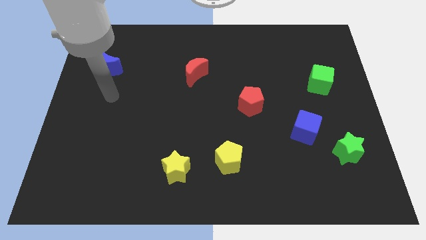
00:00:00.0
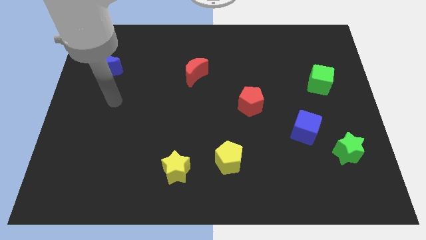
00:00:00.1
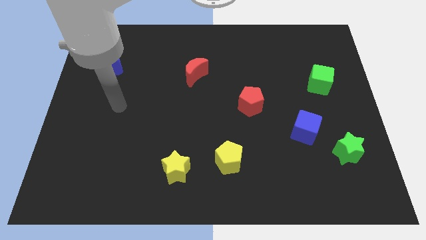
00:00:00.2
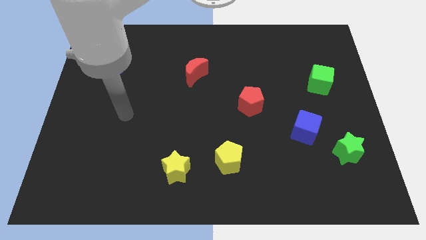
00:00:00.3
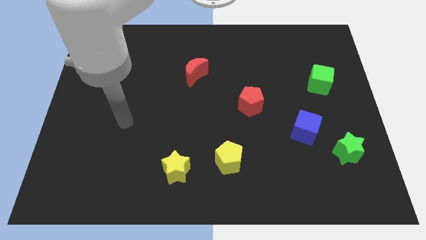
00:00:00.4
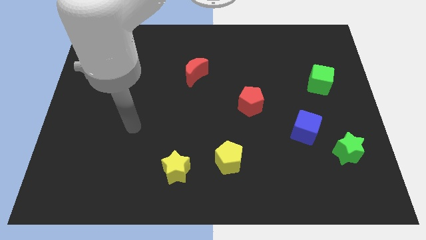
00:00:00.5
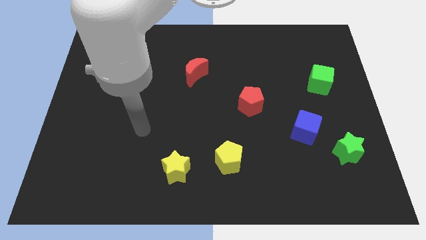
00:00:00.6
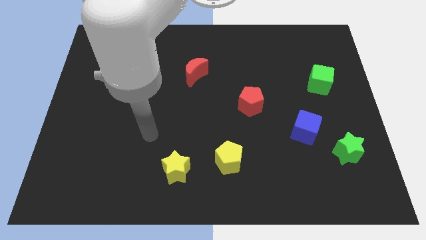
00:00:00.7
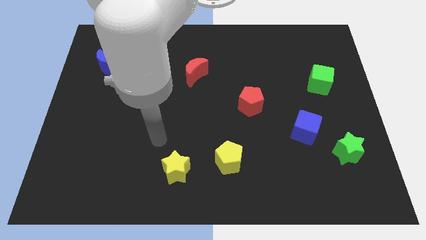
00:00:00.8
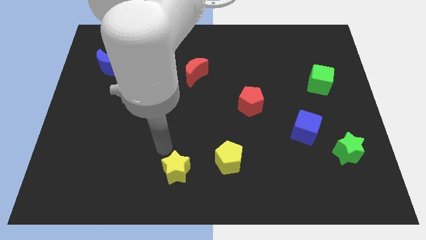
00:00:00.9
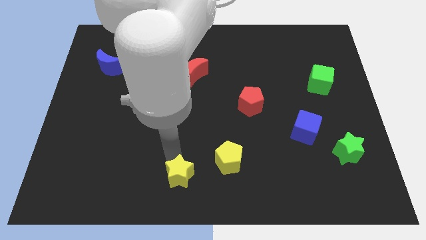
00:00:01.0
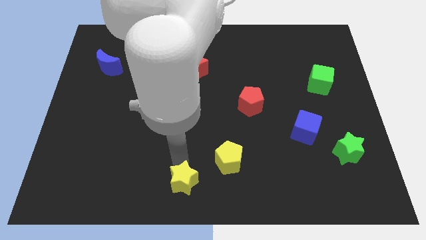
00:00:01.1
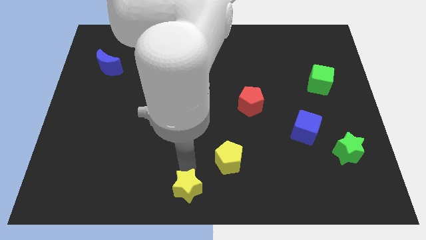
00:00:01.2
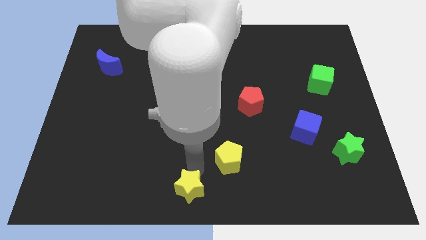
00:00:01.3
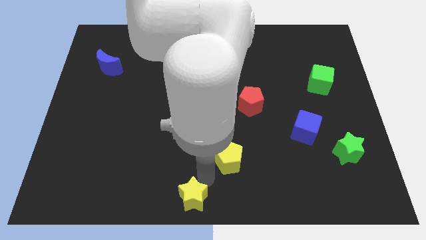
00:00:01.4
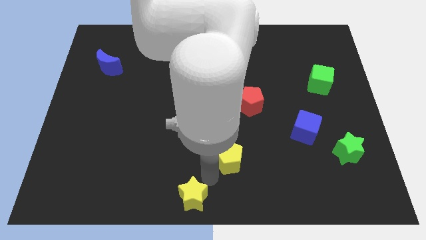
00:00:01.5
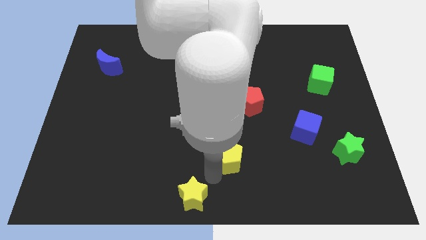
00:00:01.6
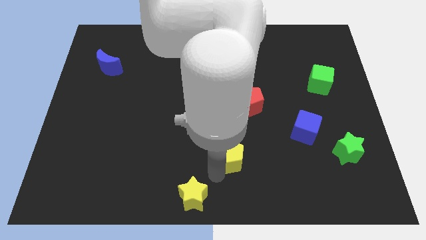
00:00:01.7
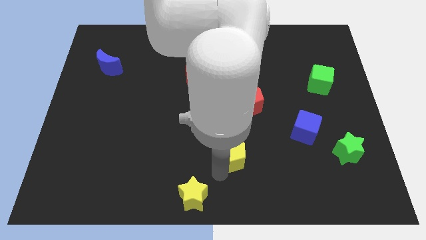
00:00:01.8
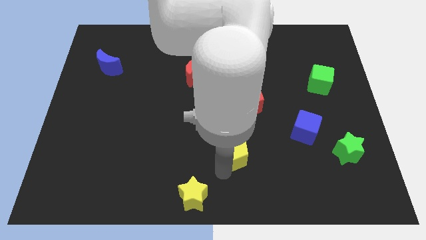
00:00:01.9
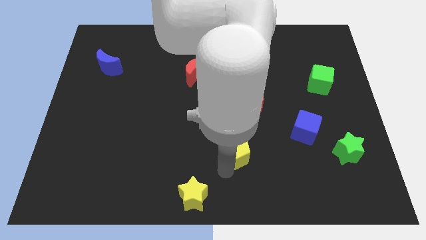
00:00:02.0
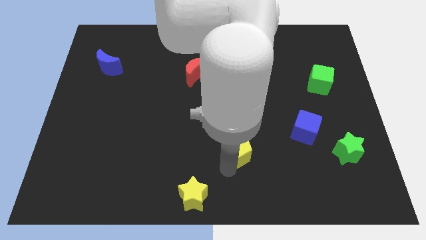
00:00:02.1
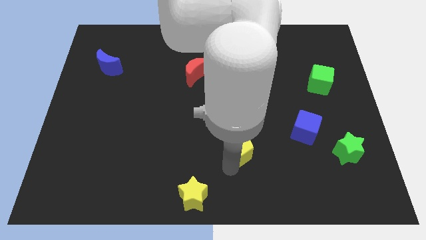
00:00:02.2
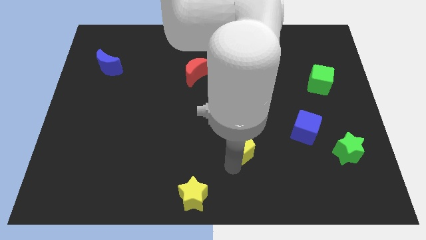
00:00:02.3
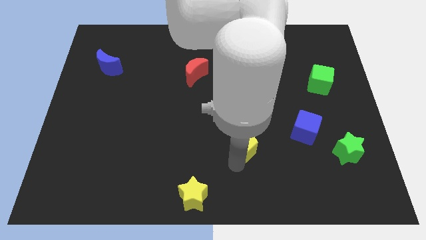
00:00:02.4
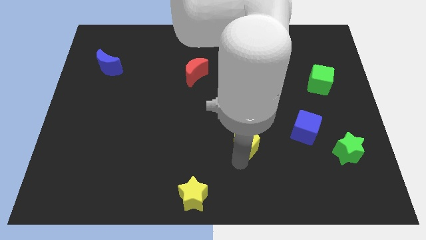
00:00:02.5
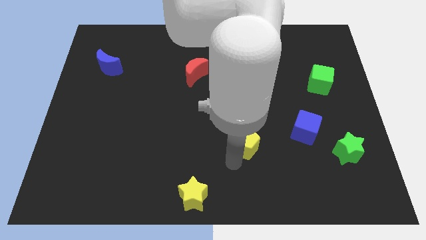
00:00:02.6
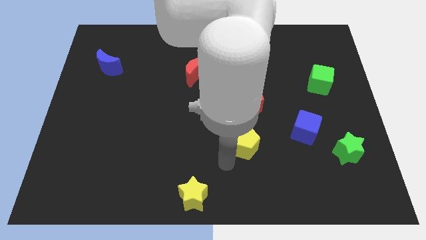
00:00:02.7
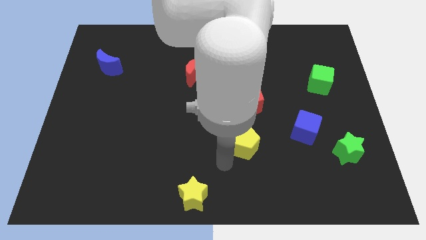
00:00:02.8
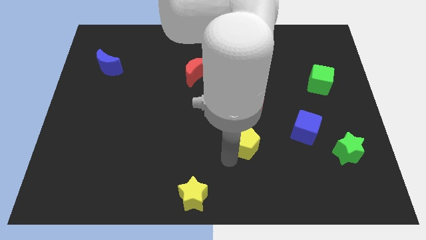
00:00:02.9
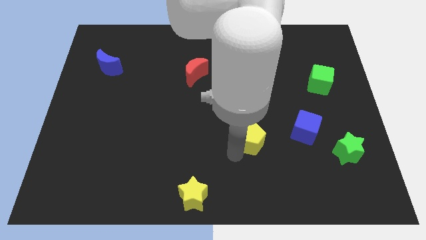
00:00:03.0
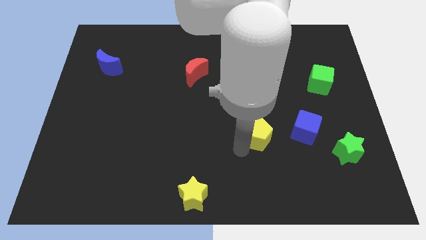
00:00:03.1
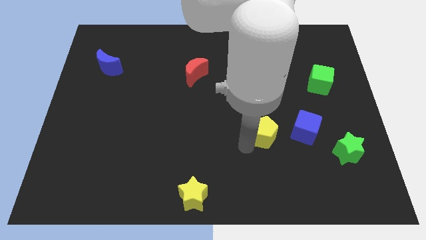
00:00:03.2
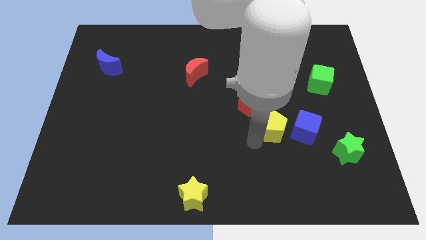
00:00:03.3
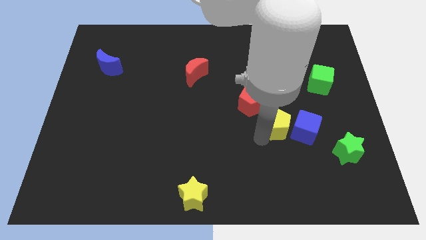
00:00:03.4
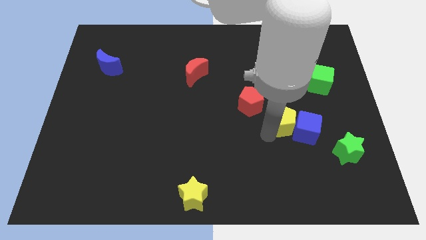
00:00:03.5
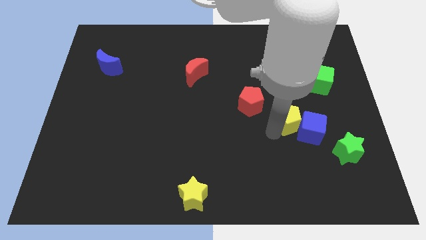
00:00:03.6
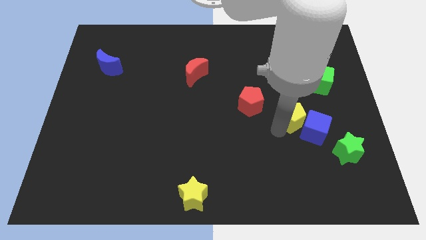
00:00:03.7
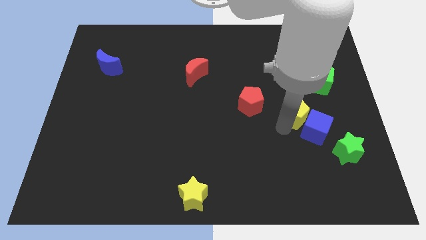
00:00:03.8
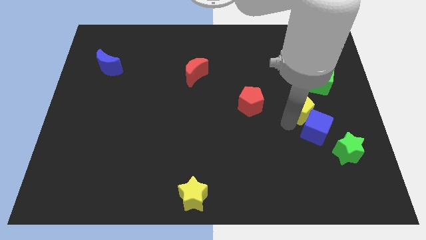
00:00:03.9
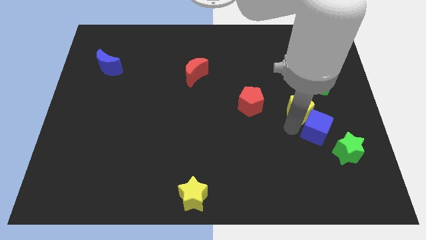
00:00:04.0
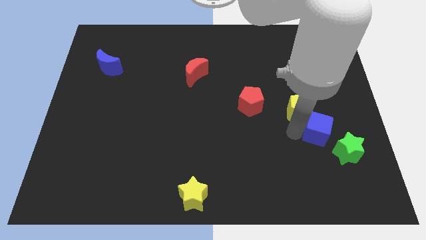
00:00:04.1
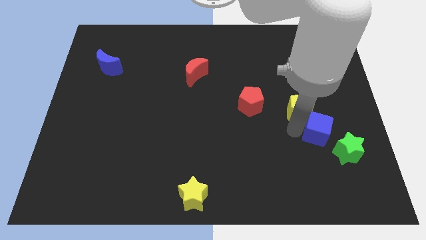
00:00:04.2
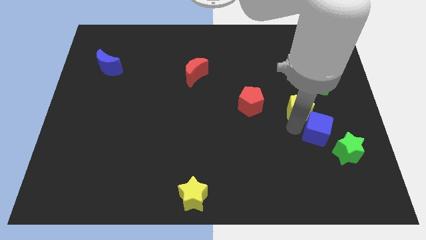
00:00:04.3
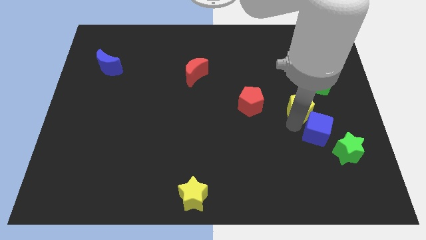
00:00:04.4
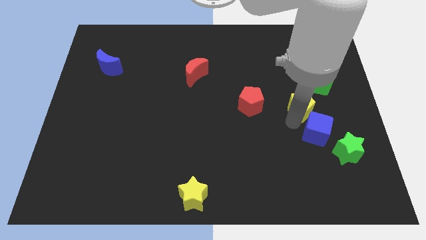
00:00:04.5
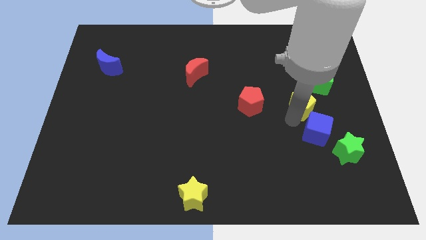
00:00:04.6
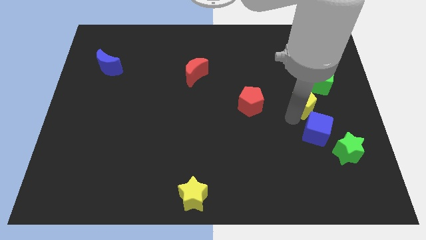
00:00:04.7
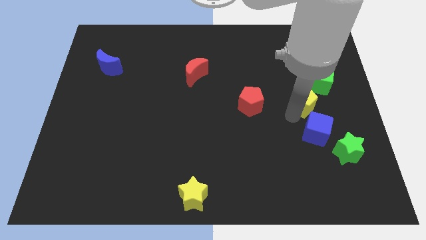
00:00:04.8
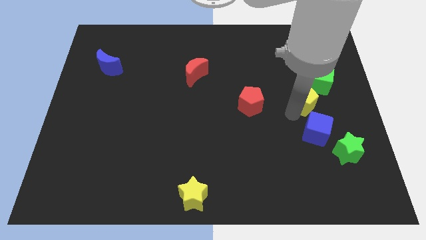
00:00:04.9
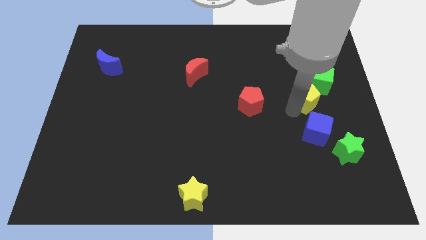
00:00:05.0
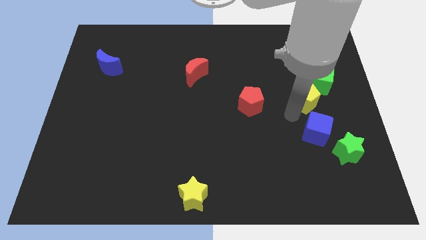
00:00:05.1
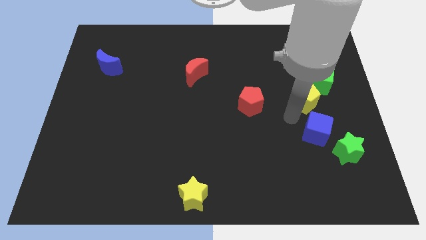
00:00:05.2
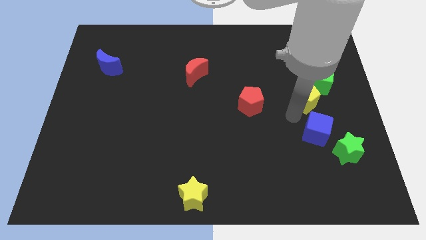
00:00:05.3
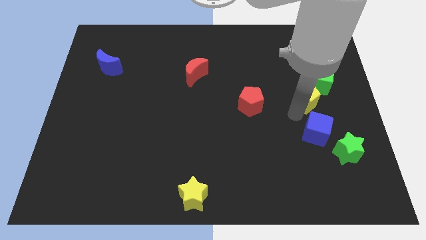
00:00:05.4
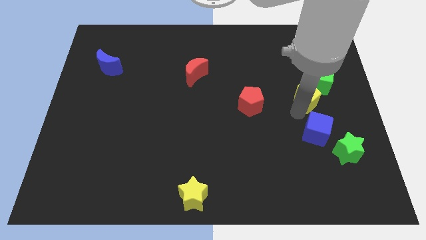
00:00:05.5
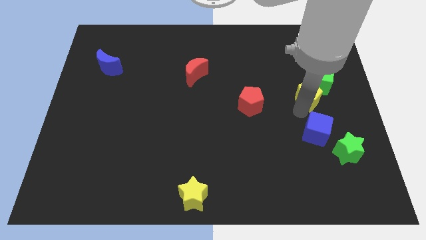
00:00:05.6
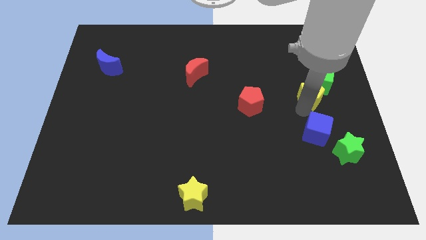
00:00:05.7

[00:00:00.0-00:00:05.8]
slide the yellow pentagon next to the green cube

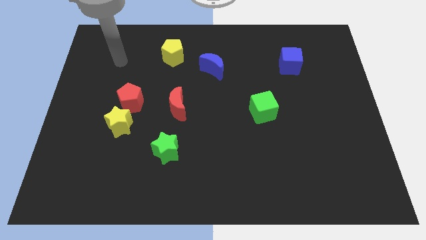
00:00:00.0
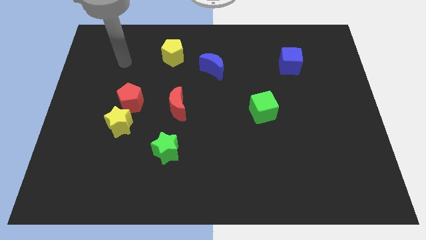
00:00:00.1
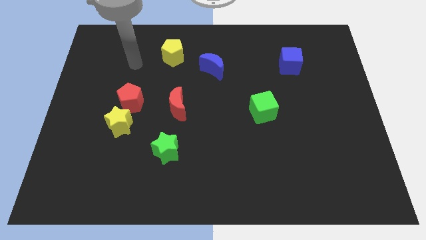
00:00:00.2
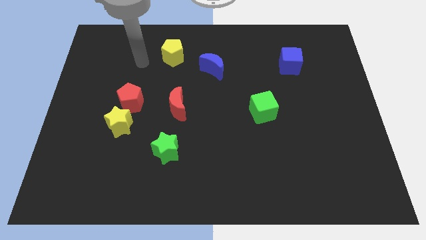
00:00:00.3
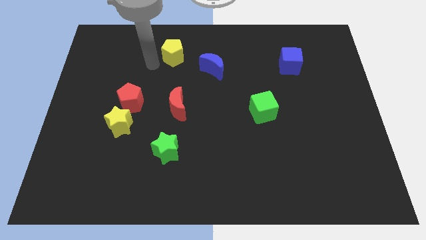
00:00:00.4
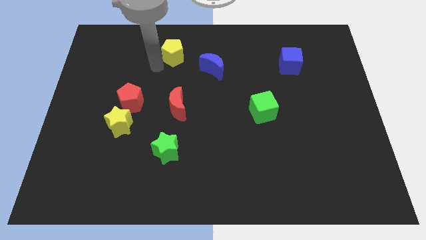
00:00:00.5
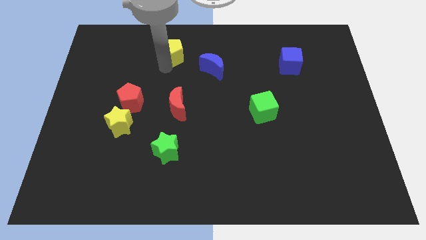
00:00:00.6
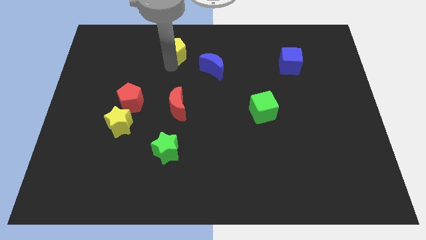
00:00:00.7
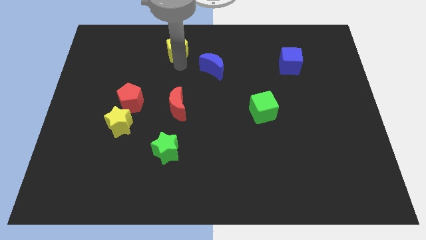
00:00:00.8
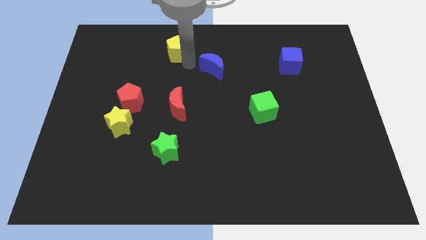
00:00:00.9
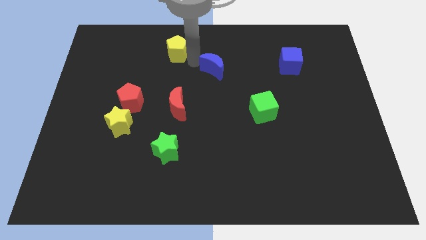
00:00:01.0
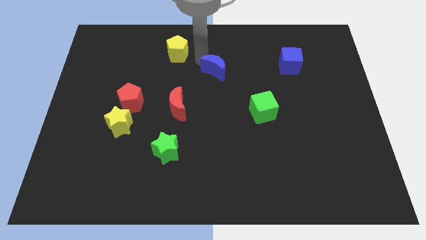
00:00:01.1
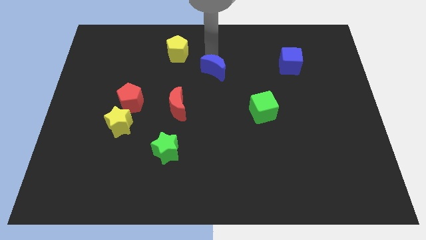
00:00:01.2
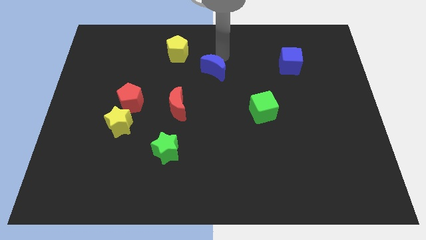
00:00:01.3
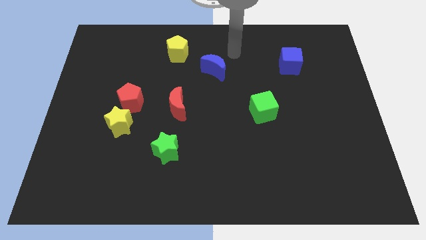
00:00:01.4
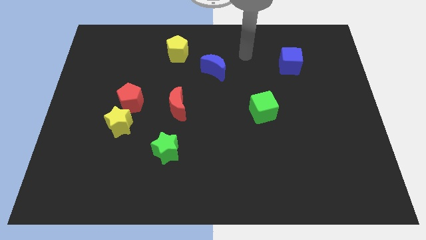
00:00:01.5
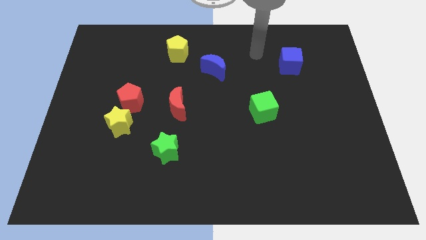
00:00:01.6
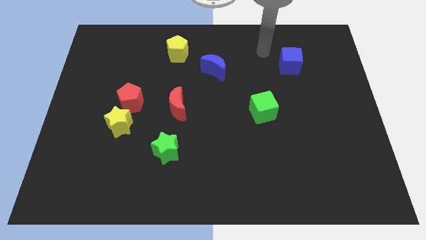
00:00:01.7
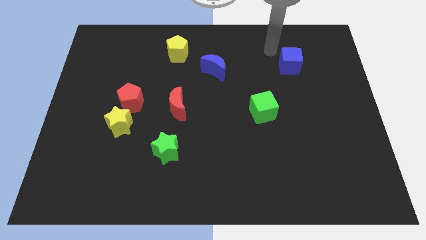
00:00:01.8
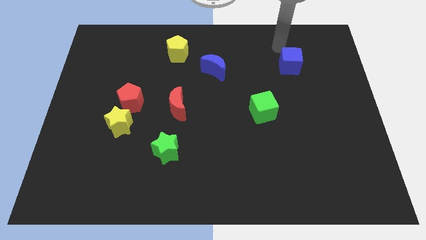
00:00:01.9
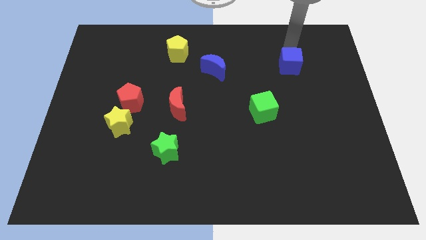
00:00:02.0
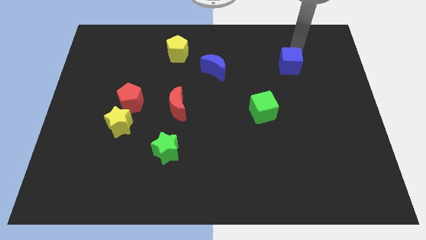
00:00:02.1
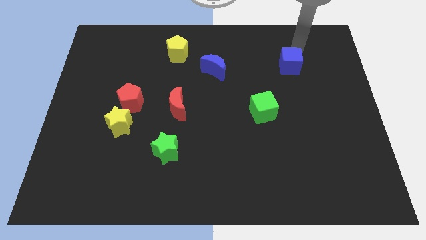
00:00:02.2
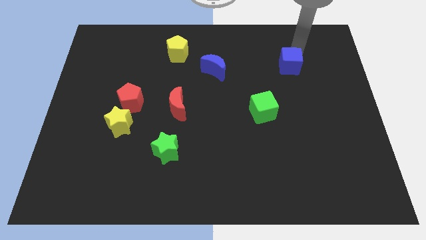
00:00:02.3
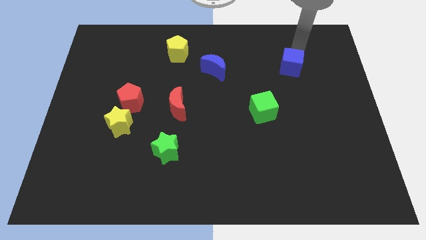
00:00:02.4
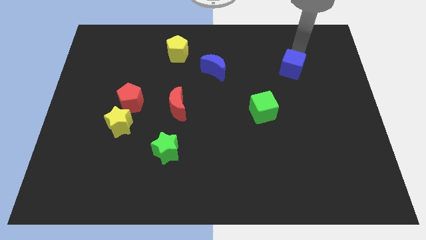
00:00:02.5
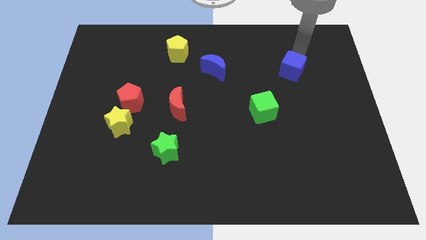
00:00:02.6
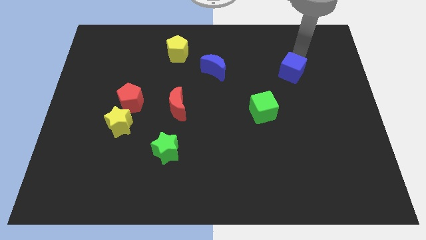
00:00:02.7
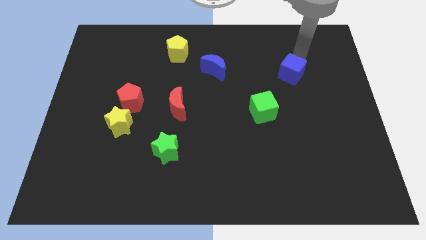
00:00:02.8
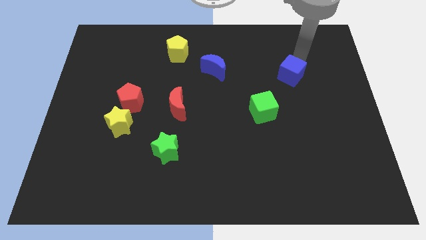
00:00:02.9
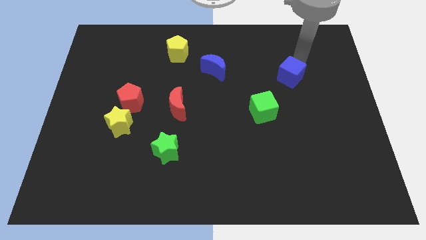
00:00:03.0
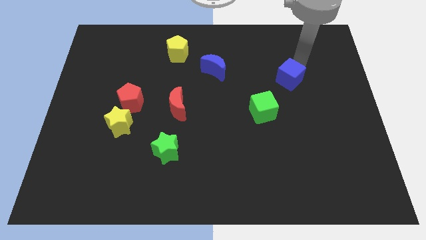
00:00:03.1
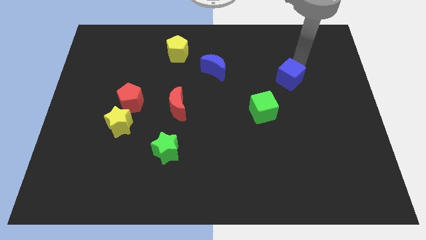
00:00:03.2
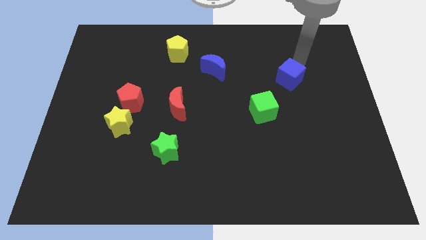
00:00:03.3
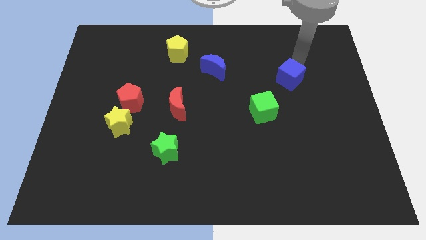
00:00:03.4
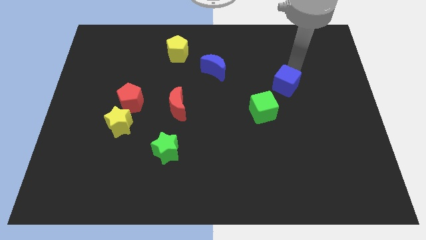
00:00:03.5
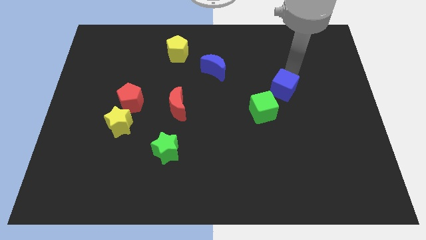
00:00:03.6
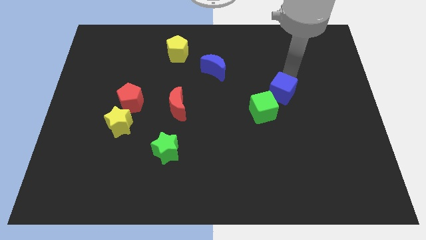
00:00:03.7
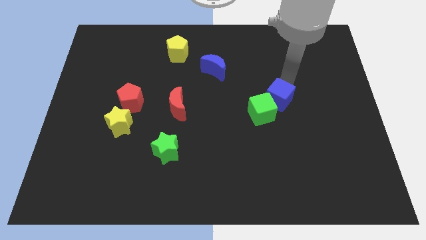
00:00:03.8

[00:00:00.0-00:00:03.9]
move the blue cube to the green cube
